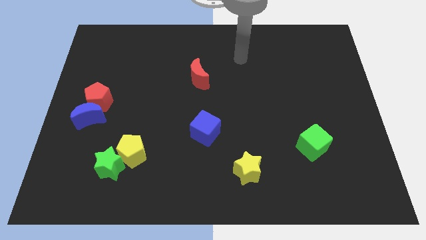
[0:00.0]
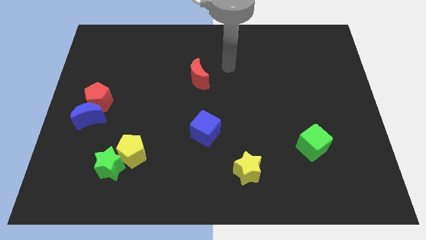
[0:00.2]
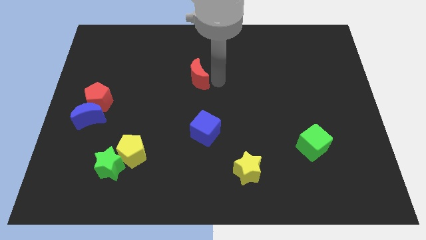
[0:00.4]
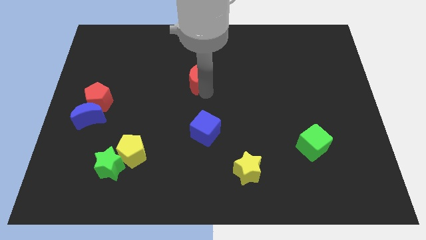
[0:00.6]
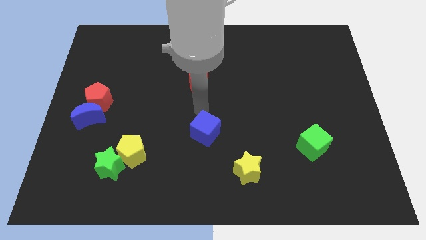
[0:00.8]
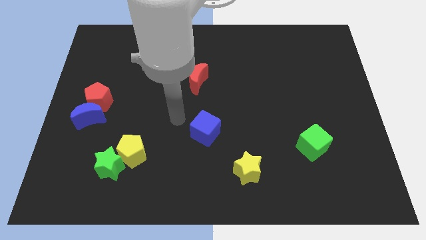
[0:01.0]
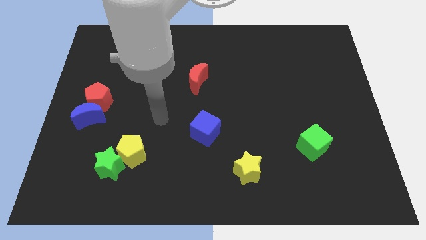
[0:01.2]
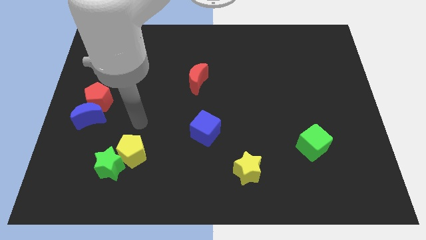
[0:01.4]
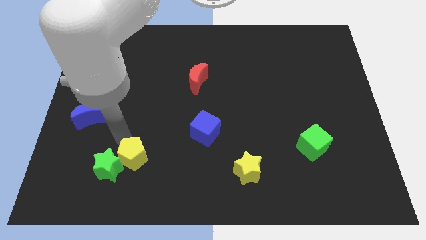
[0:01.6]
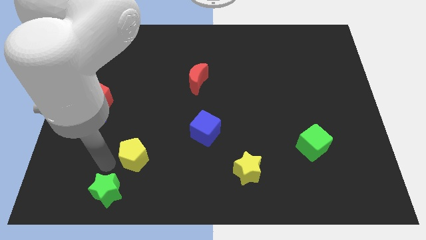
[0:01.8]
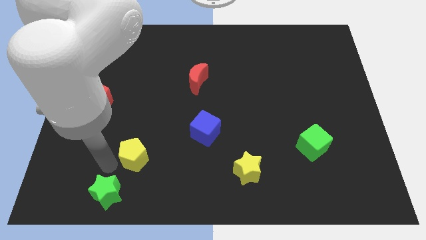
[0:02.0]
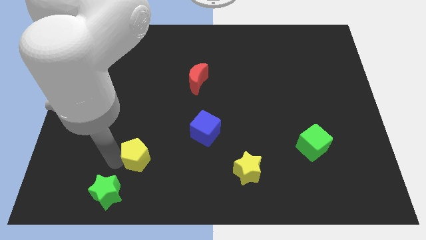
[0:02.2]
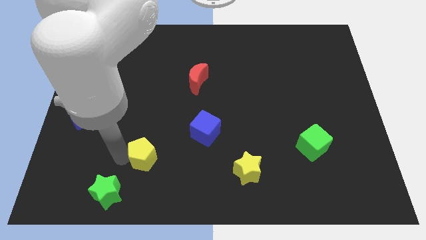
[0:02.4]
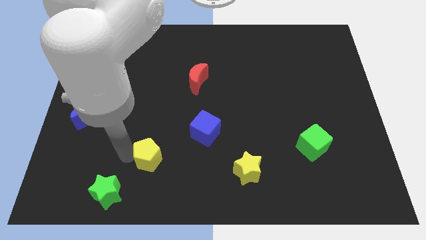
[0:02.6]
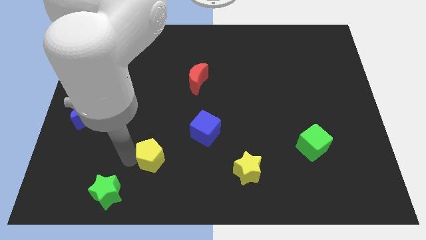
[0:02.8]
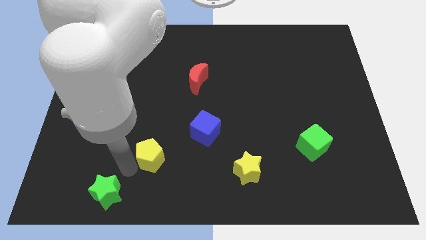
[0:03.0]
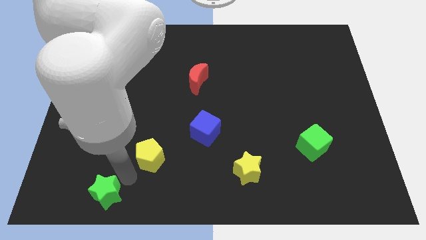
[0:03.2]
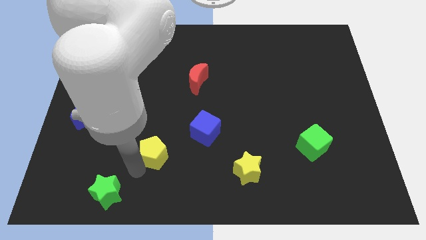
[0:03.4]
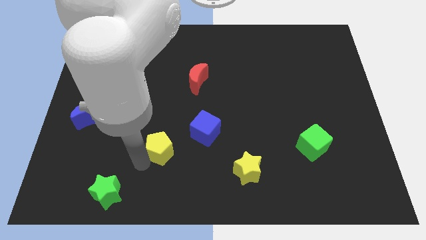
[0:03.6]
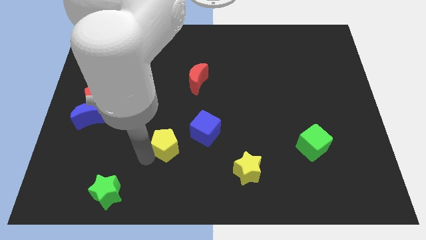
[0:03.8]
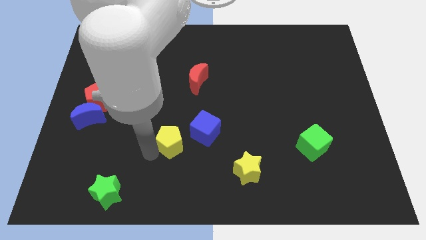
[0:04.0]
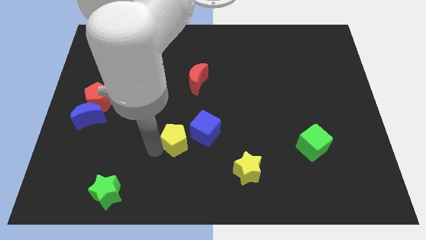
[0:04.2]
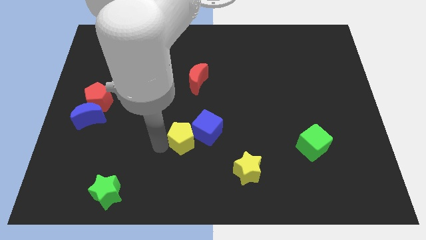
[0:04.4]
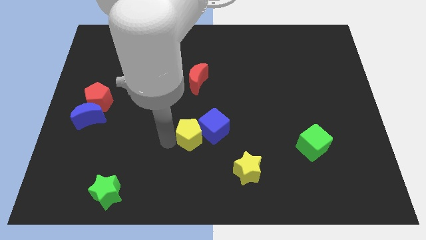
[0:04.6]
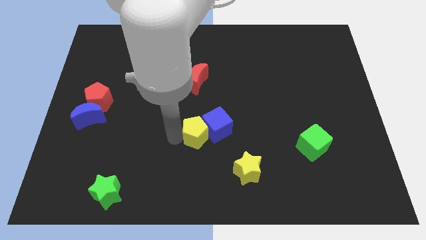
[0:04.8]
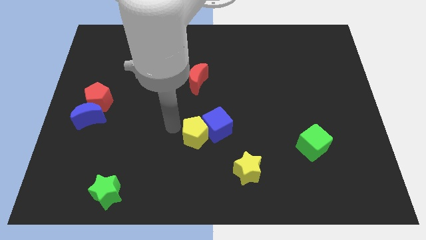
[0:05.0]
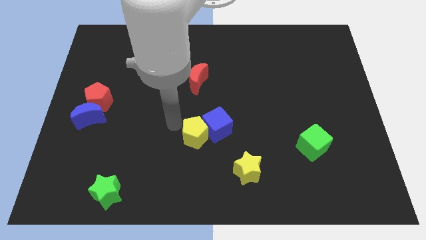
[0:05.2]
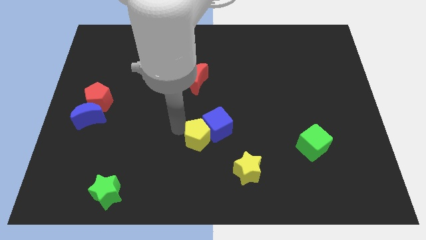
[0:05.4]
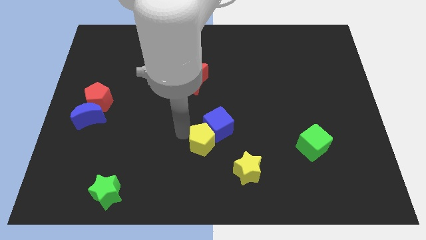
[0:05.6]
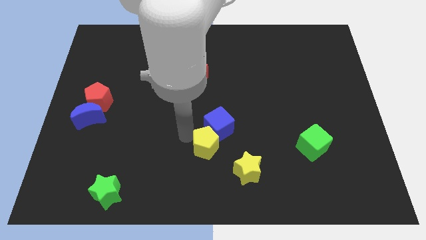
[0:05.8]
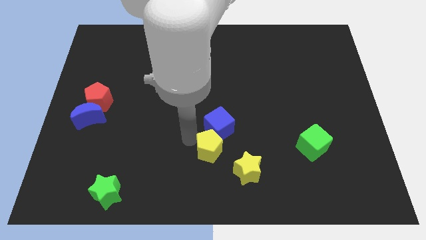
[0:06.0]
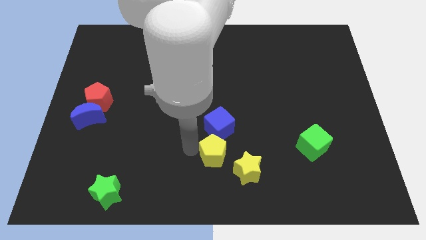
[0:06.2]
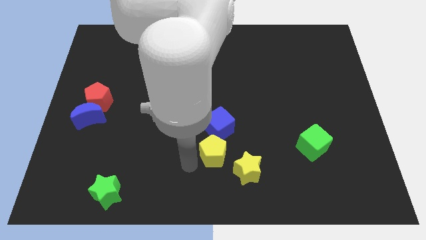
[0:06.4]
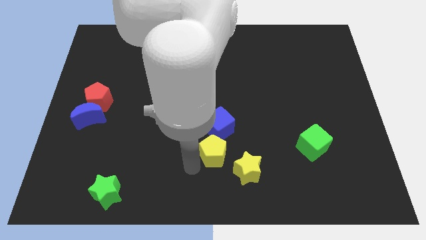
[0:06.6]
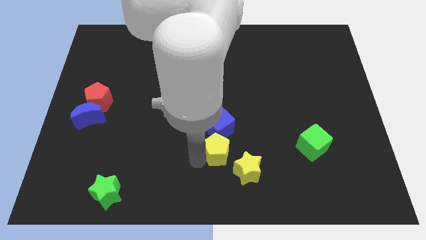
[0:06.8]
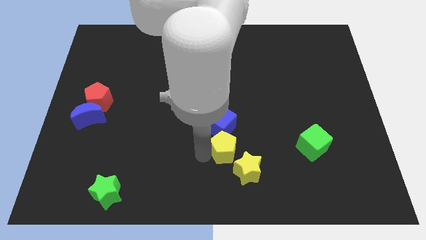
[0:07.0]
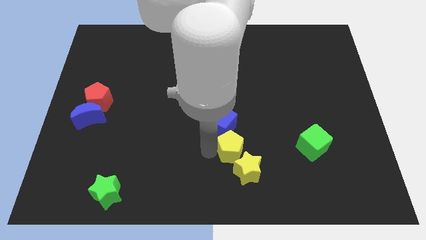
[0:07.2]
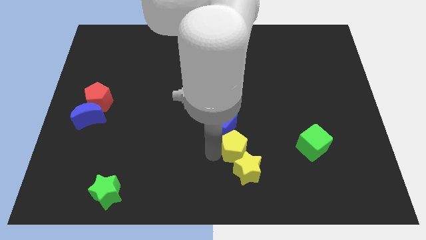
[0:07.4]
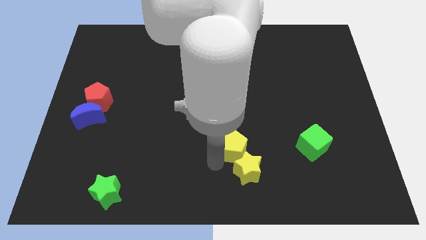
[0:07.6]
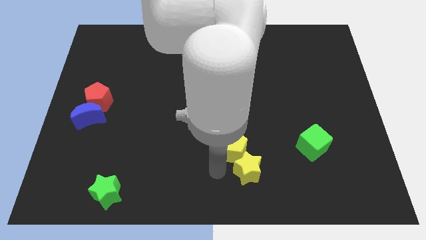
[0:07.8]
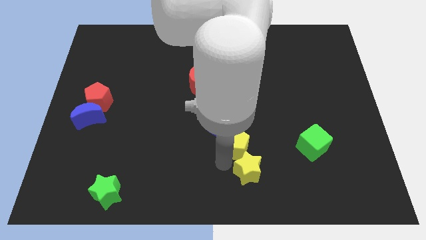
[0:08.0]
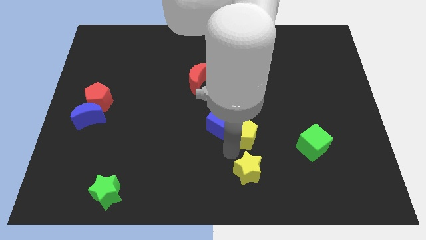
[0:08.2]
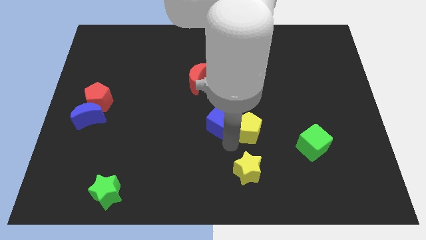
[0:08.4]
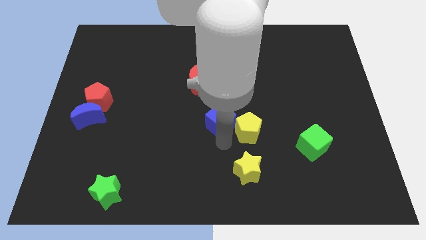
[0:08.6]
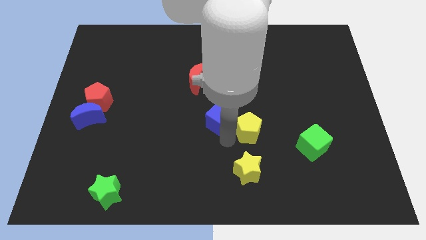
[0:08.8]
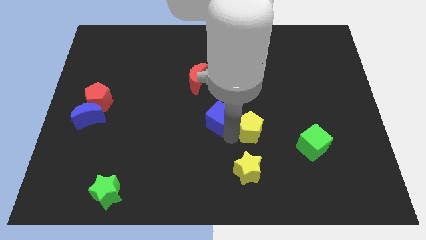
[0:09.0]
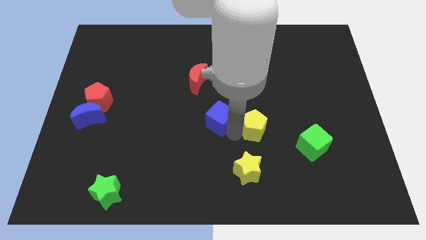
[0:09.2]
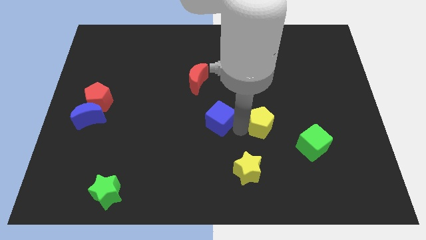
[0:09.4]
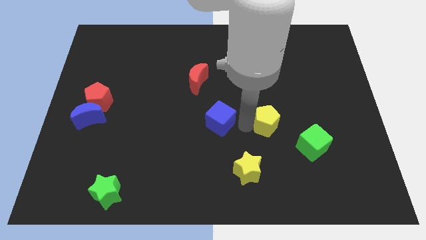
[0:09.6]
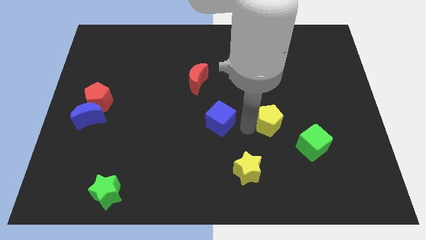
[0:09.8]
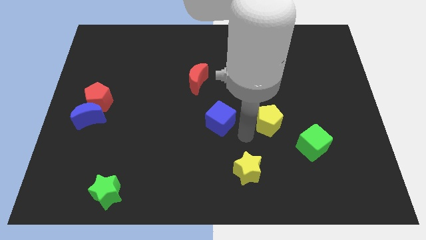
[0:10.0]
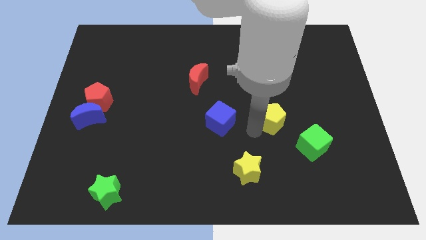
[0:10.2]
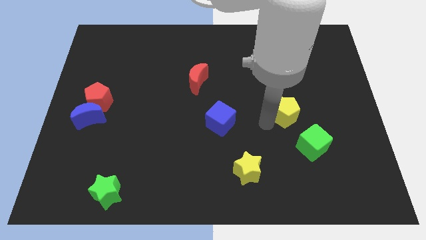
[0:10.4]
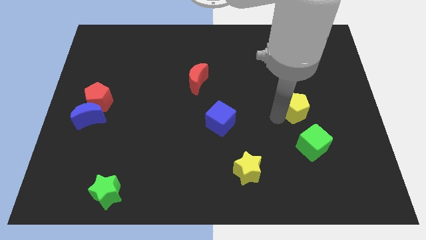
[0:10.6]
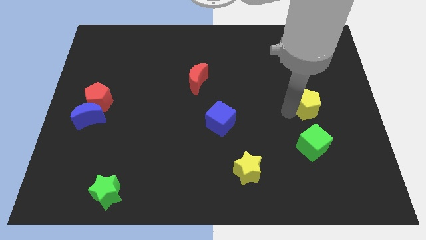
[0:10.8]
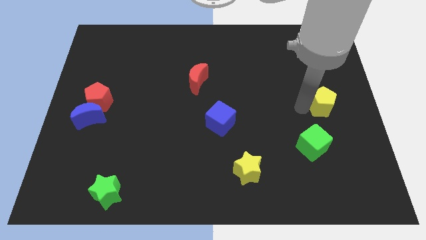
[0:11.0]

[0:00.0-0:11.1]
push the yellow pentagon to the right side of the board
